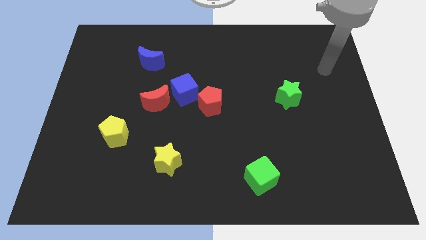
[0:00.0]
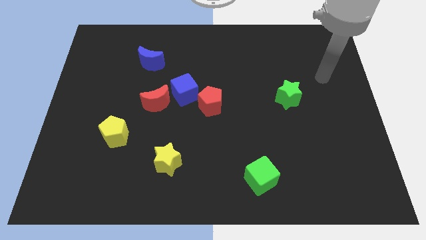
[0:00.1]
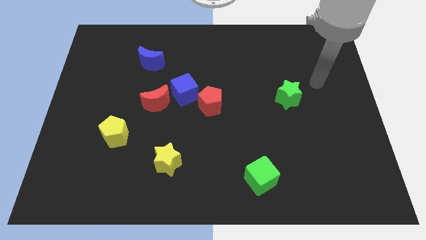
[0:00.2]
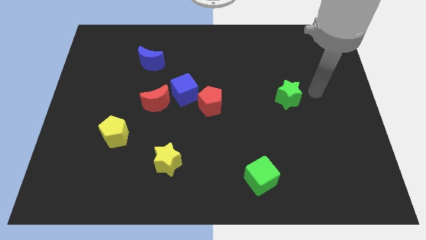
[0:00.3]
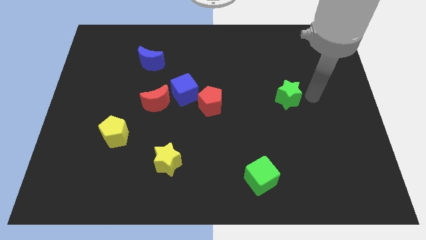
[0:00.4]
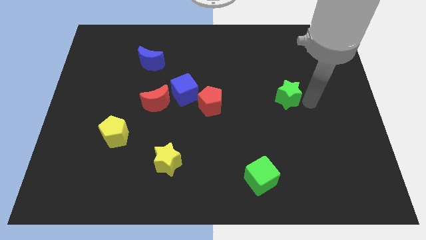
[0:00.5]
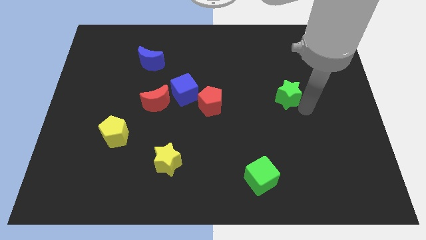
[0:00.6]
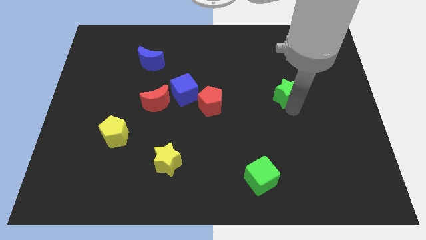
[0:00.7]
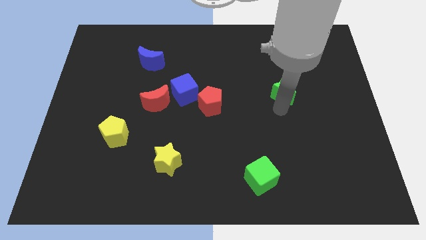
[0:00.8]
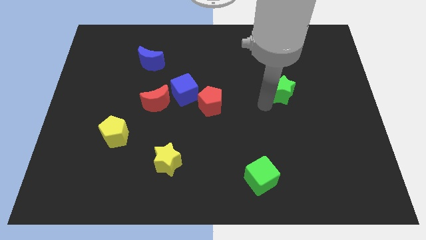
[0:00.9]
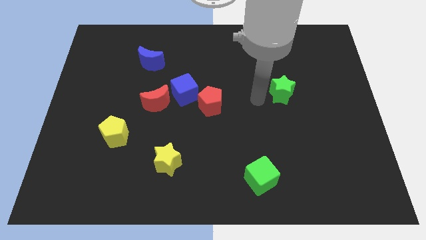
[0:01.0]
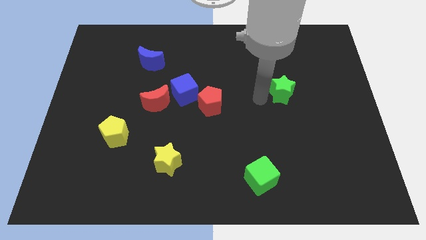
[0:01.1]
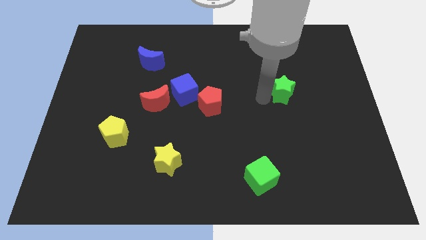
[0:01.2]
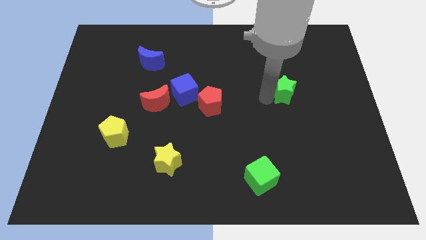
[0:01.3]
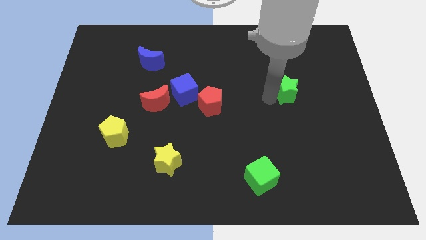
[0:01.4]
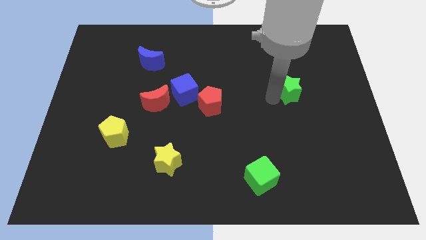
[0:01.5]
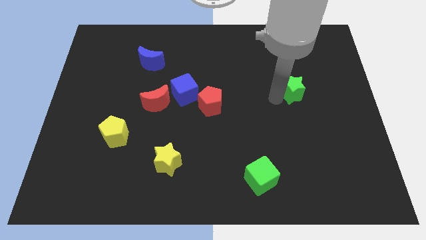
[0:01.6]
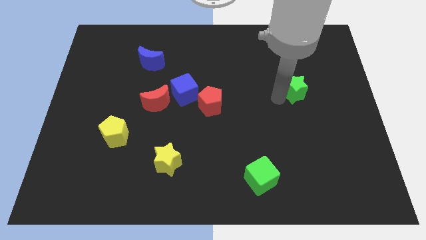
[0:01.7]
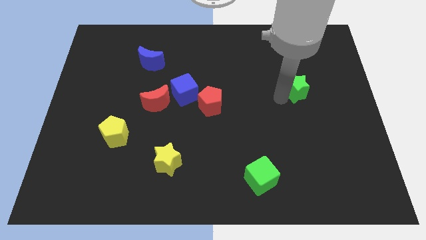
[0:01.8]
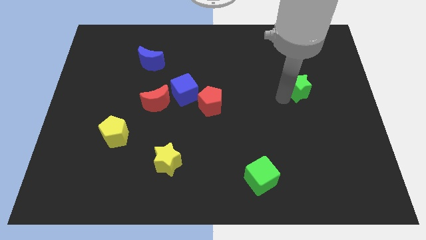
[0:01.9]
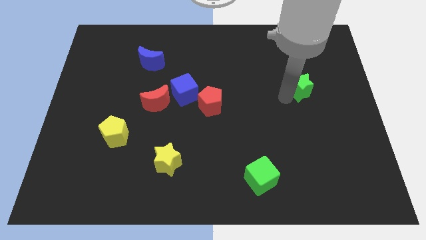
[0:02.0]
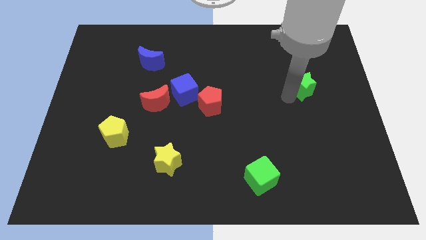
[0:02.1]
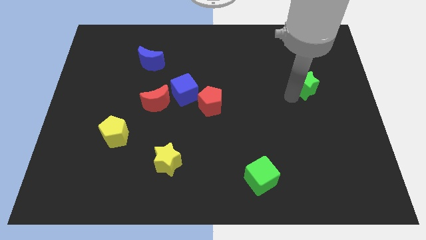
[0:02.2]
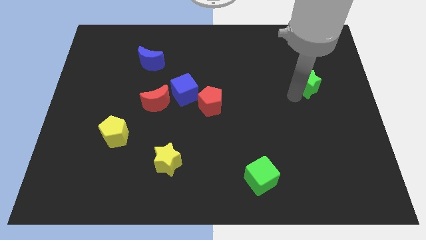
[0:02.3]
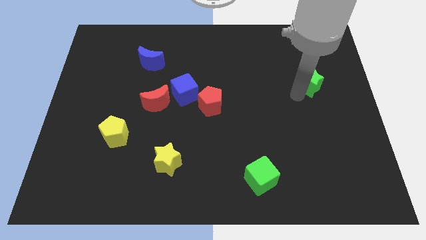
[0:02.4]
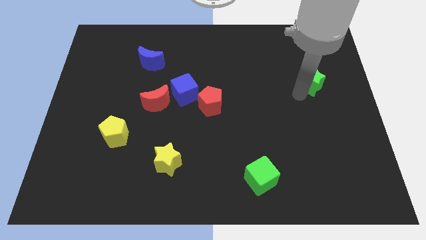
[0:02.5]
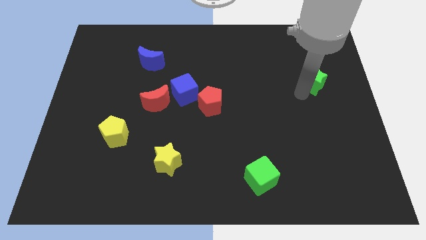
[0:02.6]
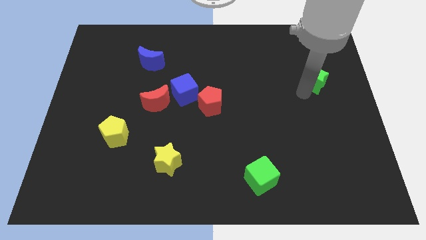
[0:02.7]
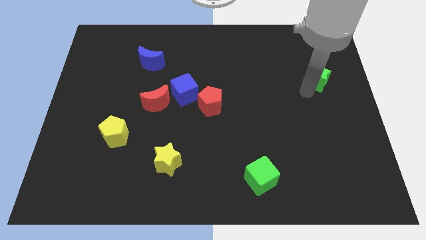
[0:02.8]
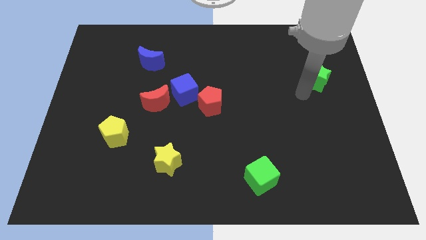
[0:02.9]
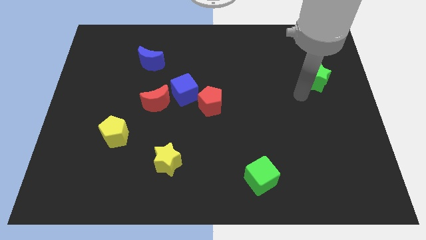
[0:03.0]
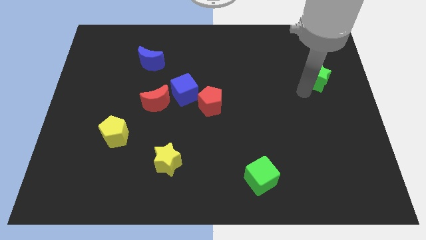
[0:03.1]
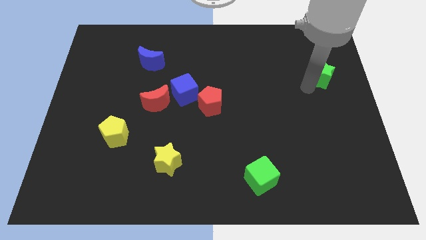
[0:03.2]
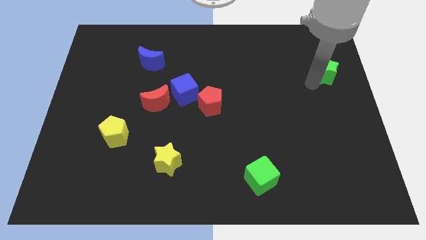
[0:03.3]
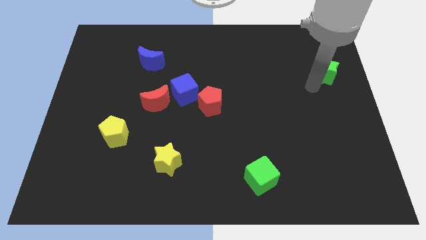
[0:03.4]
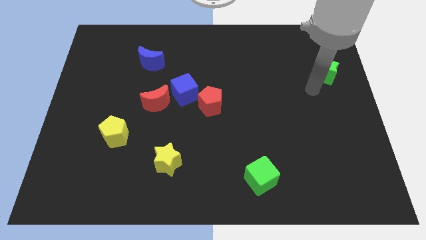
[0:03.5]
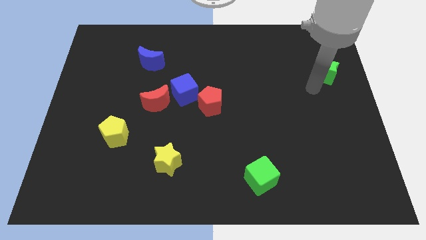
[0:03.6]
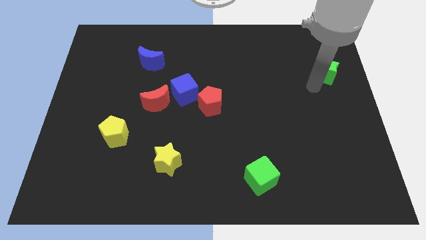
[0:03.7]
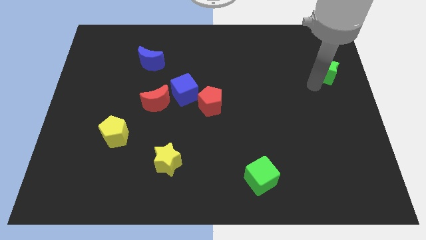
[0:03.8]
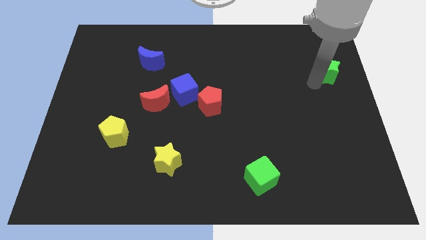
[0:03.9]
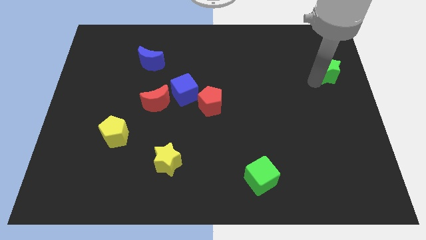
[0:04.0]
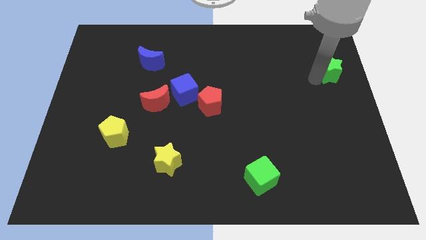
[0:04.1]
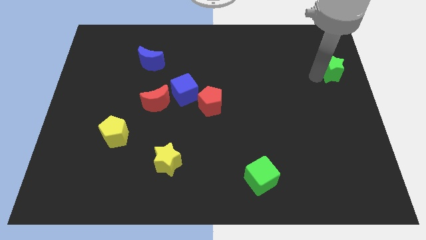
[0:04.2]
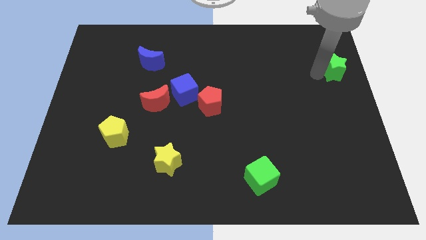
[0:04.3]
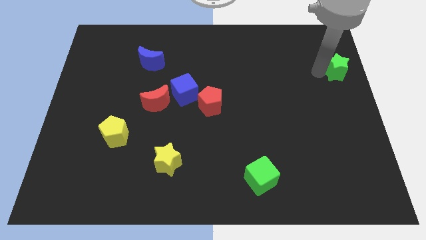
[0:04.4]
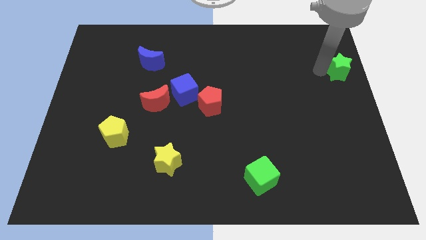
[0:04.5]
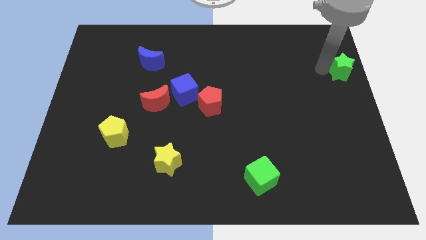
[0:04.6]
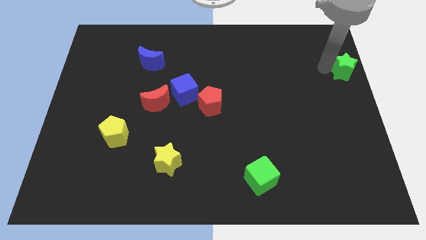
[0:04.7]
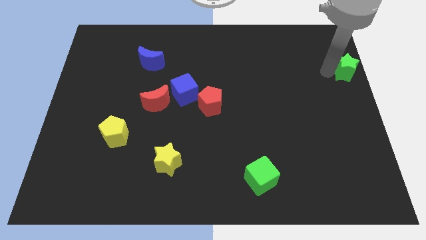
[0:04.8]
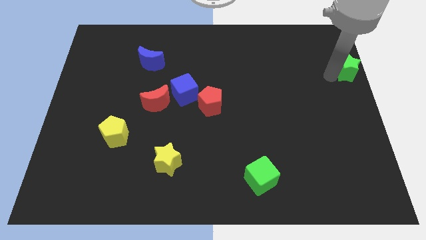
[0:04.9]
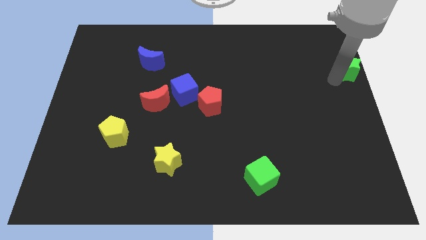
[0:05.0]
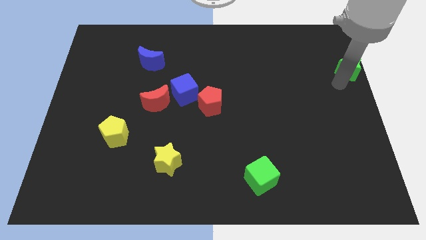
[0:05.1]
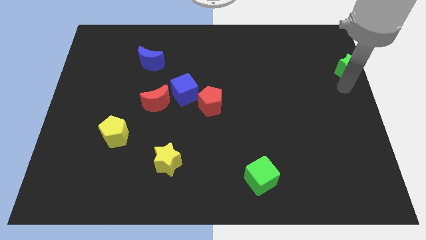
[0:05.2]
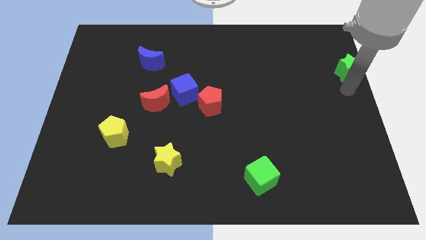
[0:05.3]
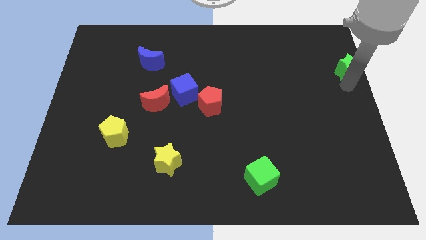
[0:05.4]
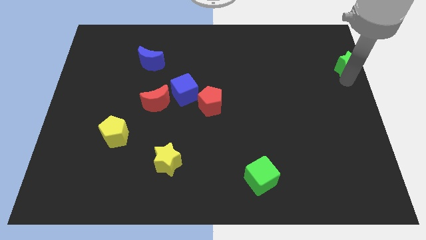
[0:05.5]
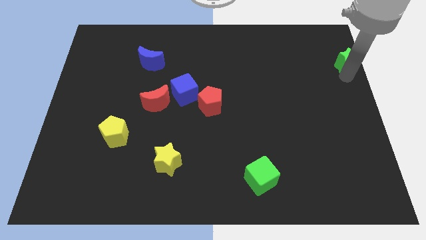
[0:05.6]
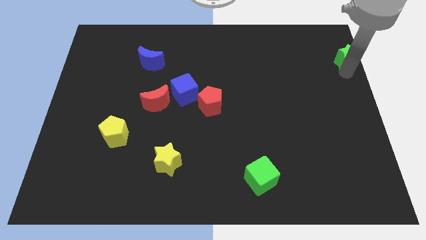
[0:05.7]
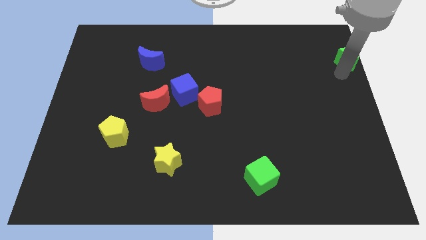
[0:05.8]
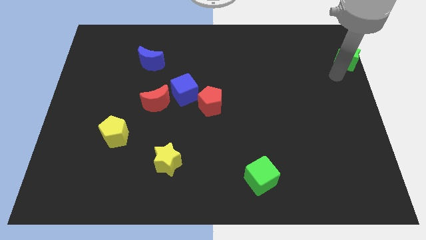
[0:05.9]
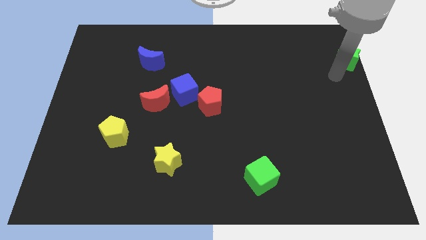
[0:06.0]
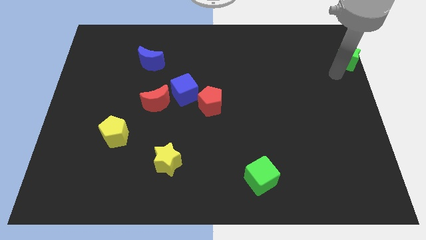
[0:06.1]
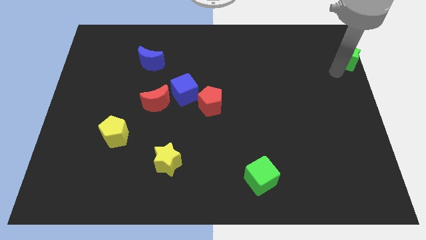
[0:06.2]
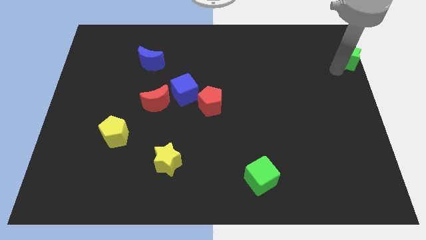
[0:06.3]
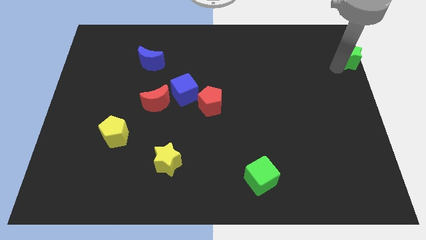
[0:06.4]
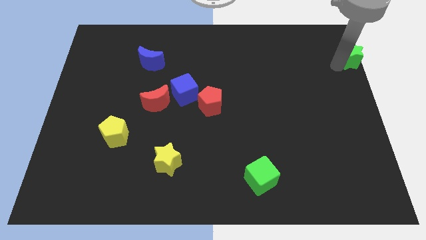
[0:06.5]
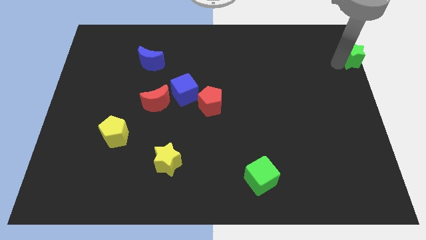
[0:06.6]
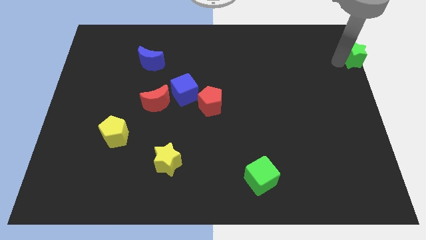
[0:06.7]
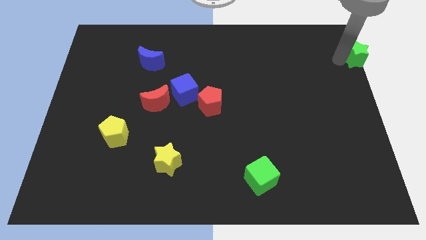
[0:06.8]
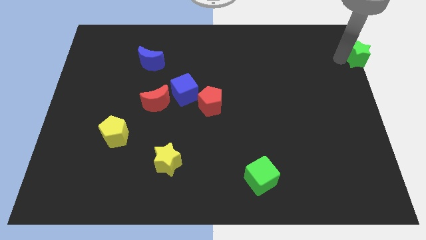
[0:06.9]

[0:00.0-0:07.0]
put the green star to the top right
